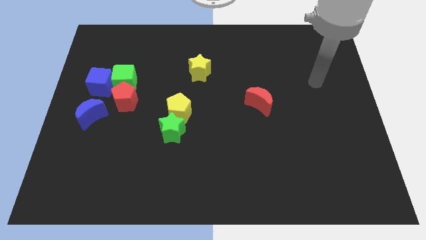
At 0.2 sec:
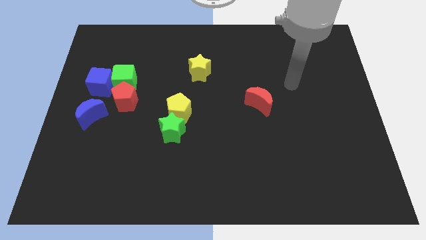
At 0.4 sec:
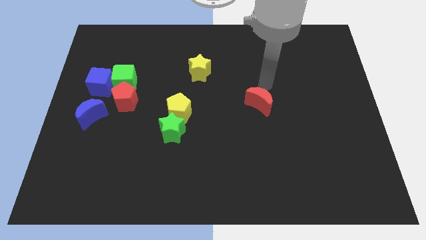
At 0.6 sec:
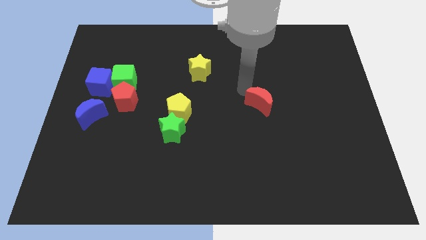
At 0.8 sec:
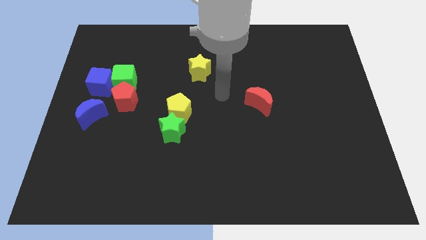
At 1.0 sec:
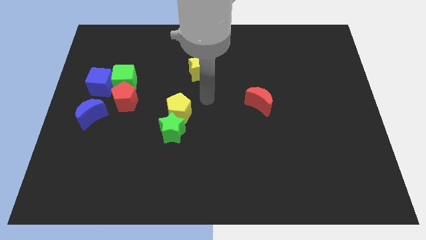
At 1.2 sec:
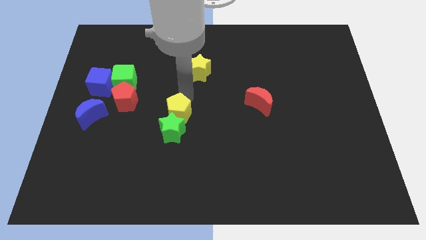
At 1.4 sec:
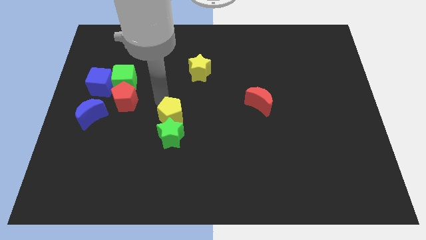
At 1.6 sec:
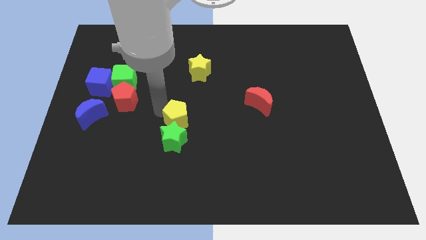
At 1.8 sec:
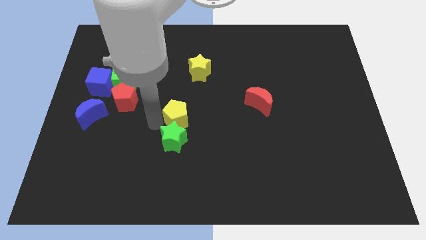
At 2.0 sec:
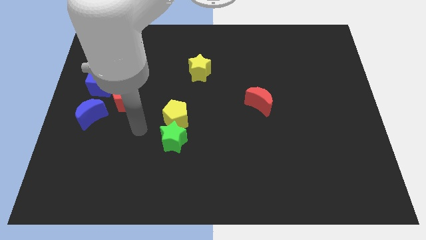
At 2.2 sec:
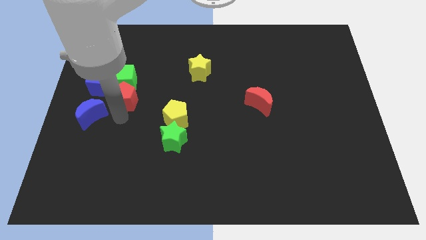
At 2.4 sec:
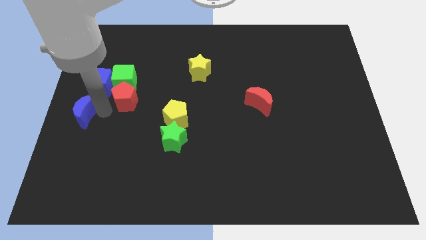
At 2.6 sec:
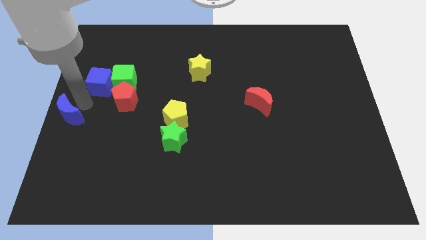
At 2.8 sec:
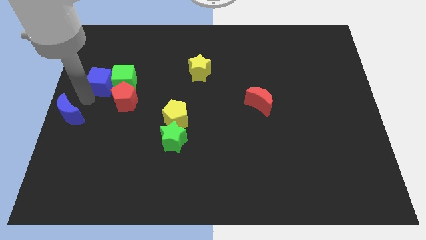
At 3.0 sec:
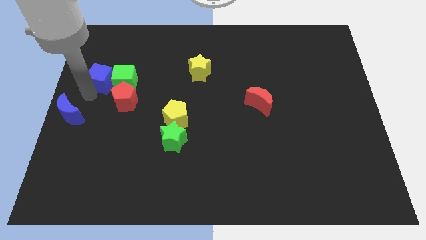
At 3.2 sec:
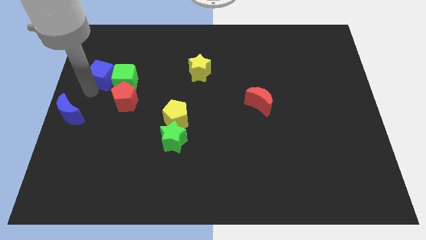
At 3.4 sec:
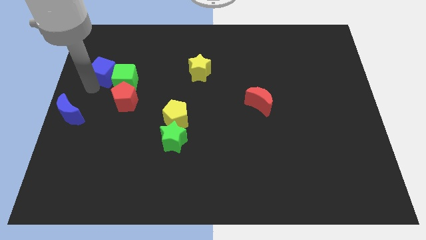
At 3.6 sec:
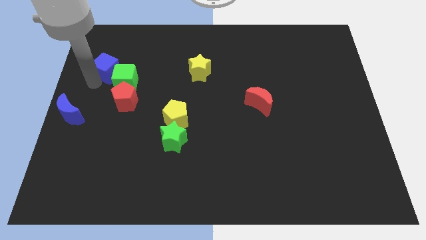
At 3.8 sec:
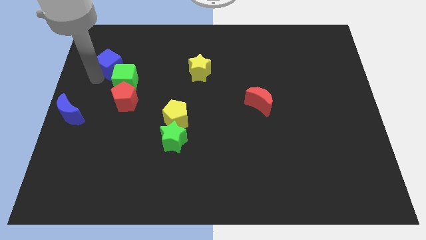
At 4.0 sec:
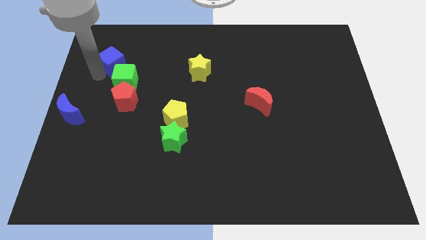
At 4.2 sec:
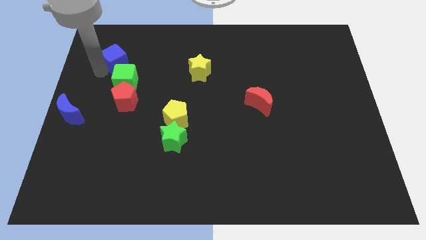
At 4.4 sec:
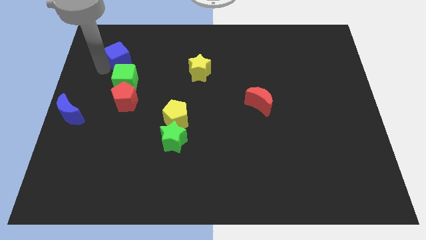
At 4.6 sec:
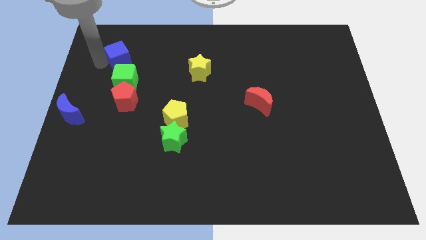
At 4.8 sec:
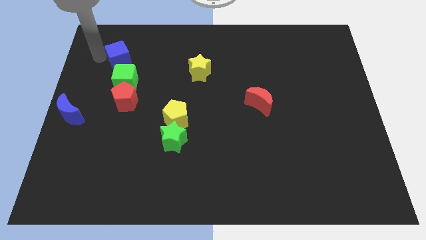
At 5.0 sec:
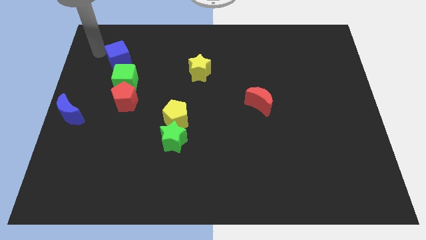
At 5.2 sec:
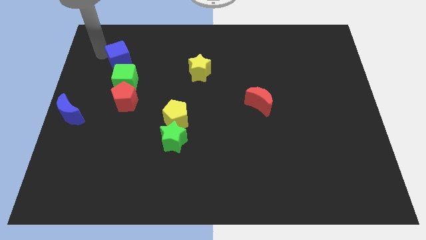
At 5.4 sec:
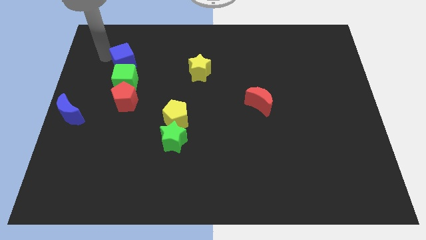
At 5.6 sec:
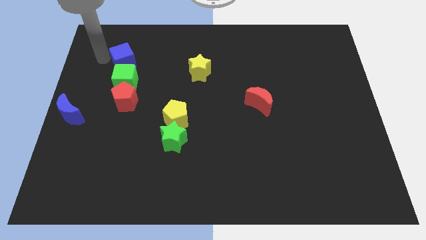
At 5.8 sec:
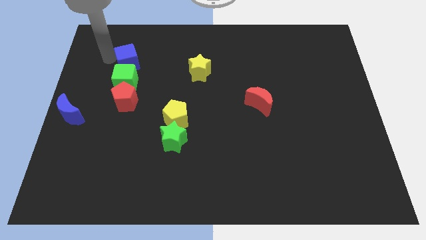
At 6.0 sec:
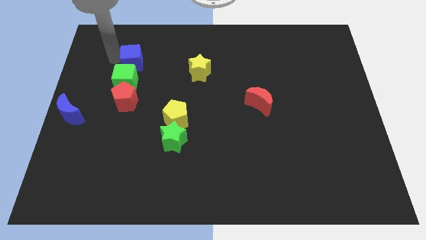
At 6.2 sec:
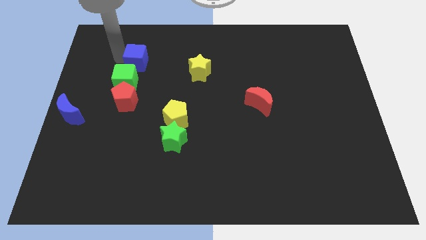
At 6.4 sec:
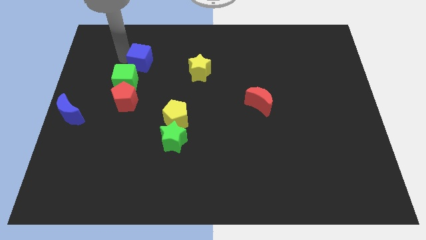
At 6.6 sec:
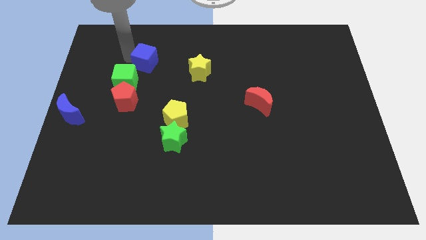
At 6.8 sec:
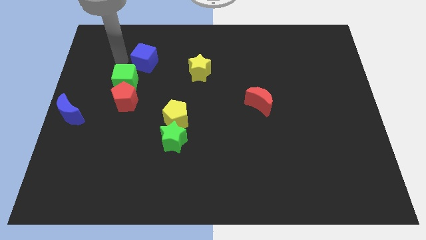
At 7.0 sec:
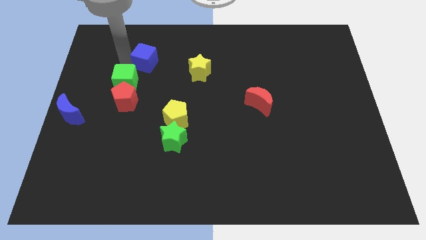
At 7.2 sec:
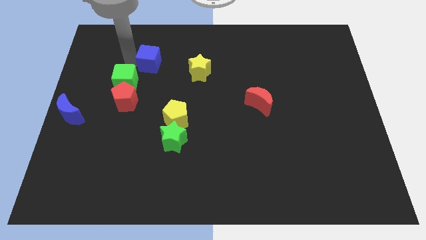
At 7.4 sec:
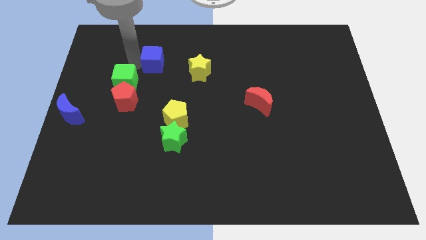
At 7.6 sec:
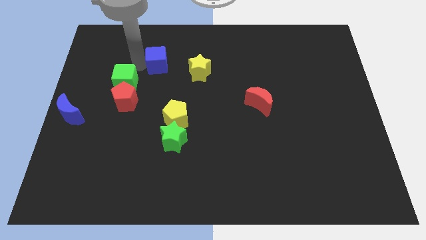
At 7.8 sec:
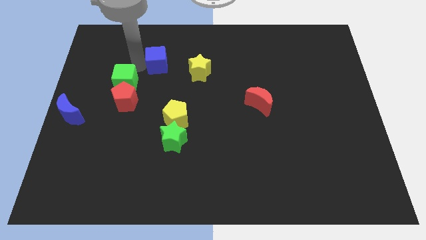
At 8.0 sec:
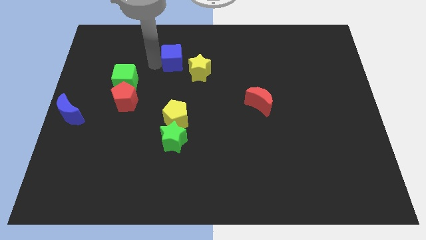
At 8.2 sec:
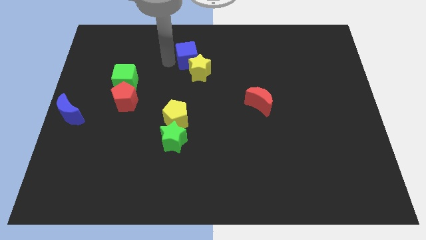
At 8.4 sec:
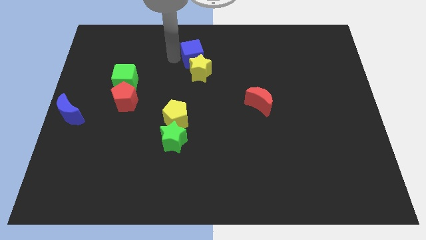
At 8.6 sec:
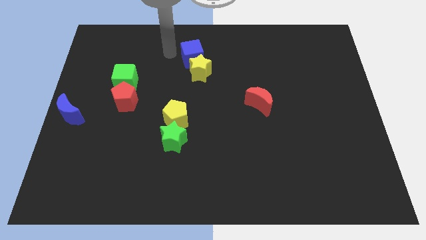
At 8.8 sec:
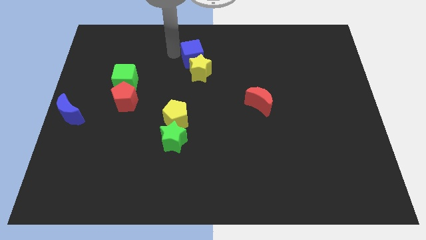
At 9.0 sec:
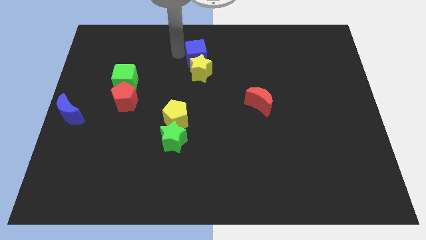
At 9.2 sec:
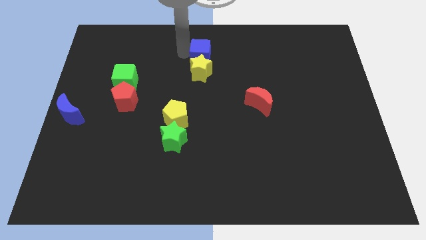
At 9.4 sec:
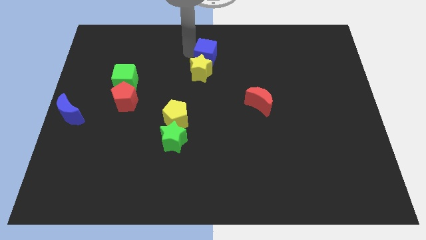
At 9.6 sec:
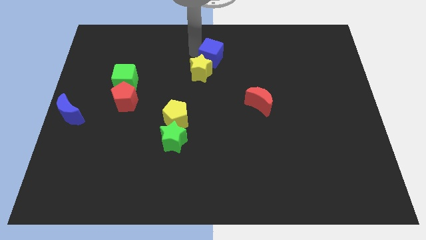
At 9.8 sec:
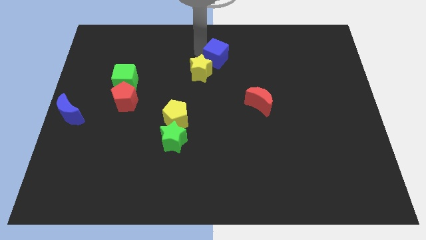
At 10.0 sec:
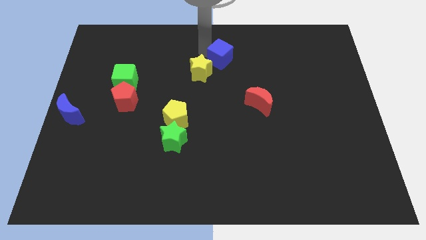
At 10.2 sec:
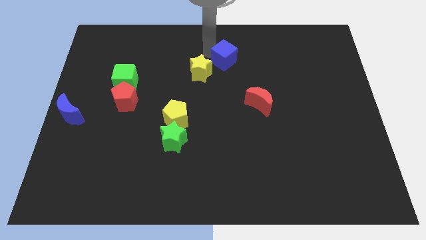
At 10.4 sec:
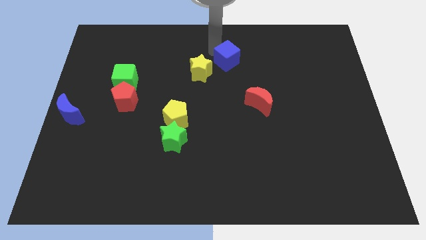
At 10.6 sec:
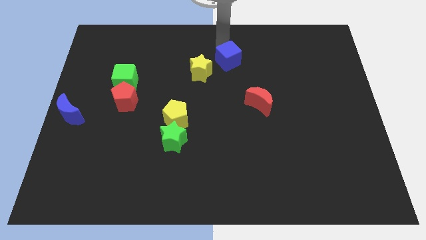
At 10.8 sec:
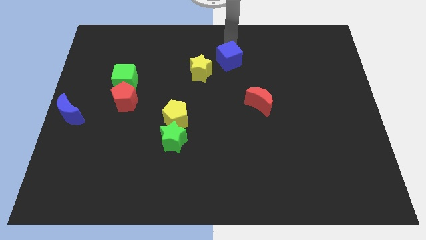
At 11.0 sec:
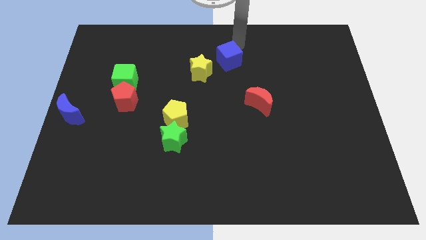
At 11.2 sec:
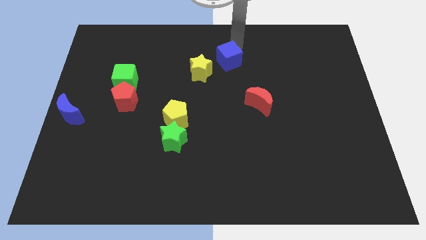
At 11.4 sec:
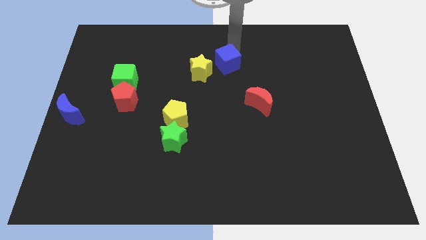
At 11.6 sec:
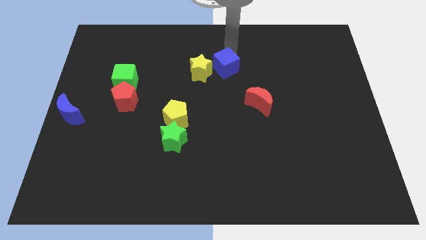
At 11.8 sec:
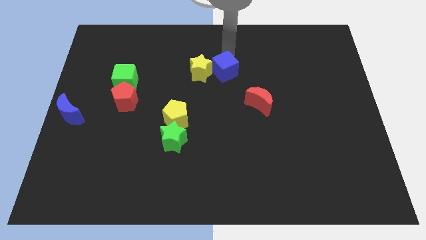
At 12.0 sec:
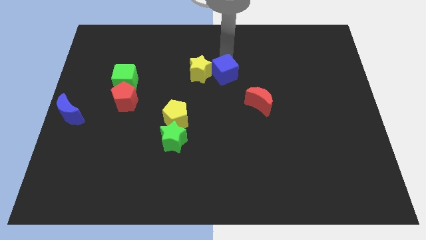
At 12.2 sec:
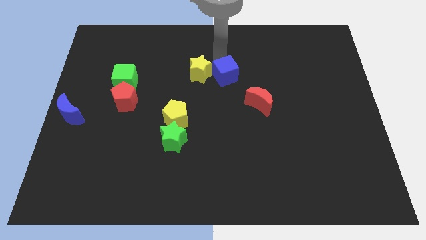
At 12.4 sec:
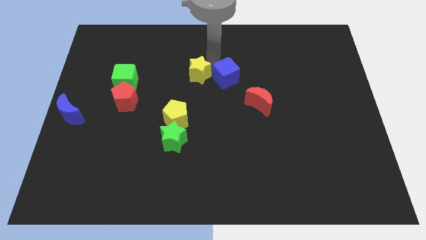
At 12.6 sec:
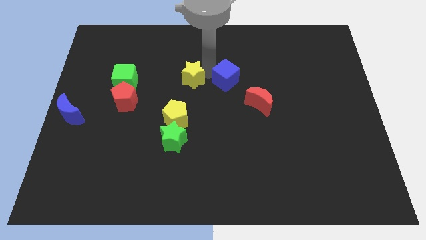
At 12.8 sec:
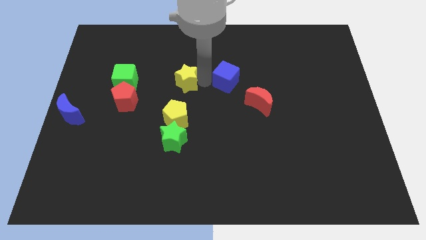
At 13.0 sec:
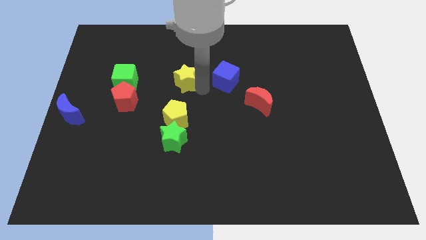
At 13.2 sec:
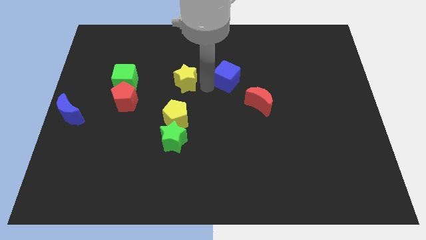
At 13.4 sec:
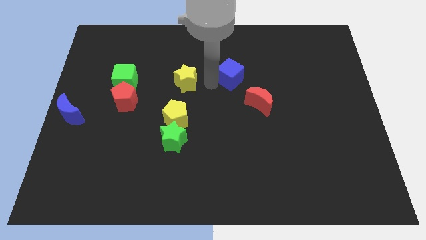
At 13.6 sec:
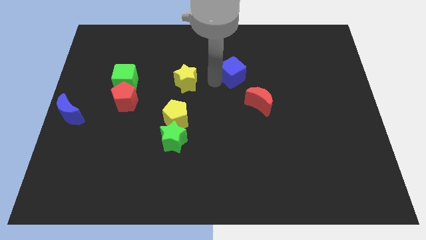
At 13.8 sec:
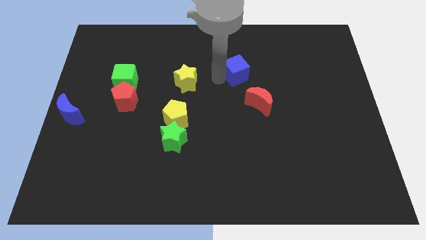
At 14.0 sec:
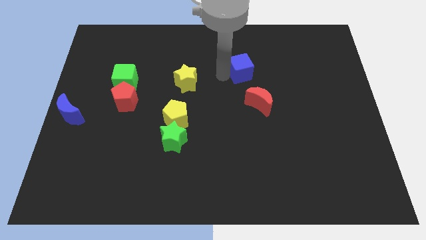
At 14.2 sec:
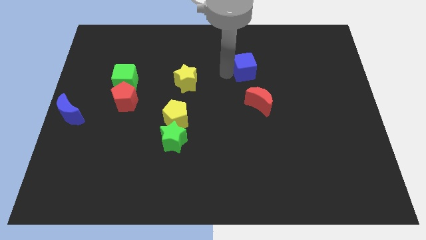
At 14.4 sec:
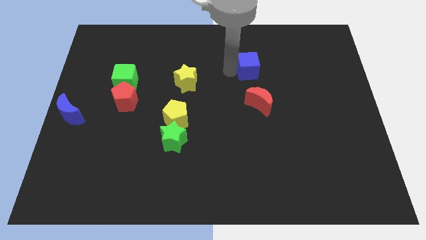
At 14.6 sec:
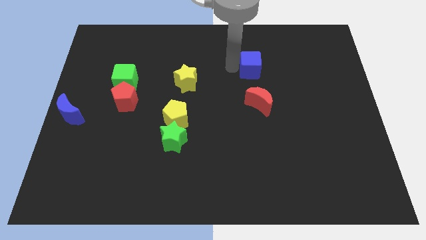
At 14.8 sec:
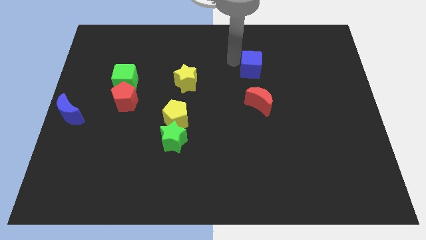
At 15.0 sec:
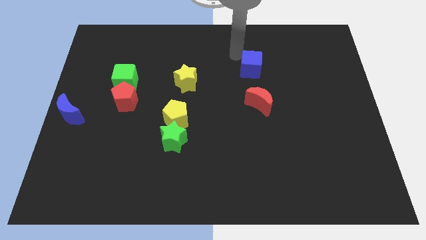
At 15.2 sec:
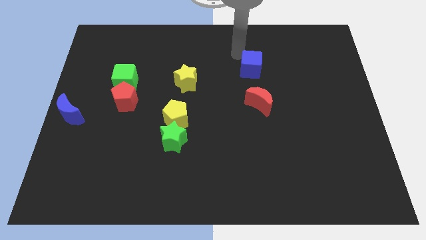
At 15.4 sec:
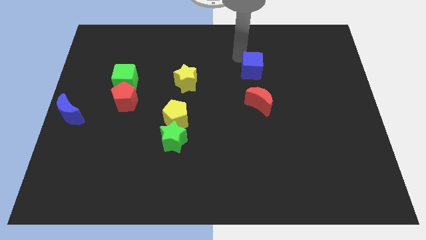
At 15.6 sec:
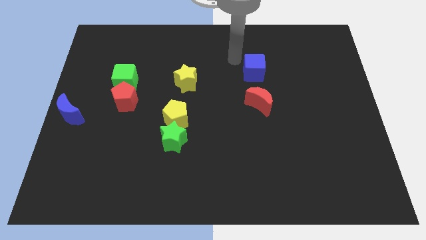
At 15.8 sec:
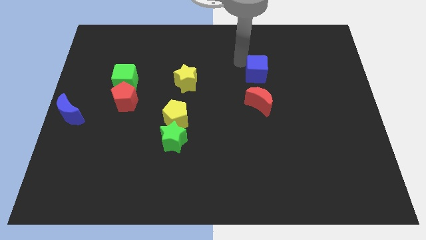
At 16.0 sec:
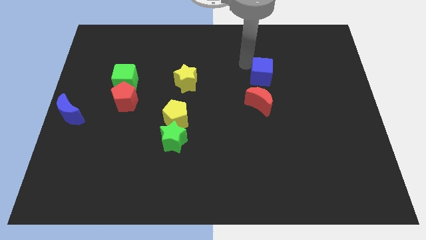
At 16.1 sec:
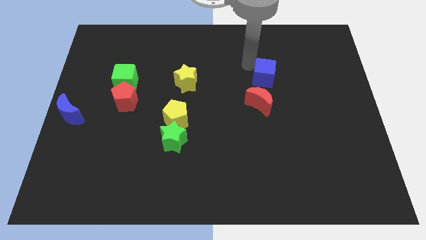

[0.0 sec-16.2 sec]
put the blue cube to the top right of the red moon
